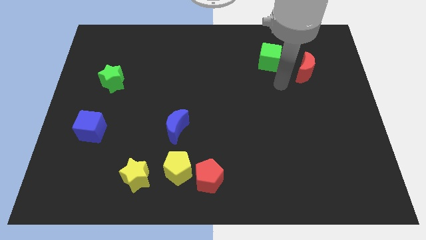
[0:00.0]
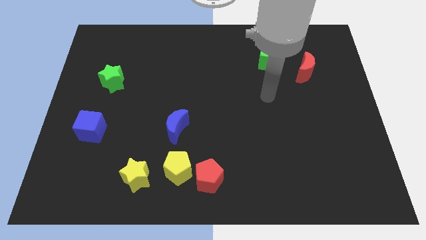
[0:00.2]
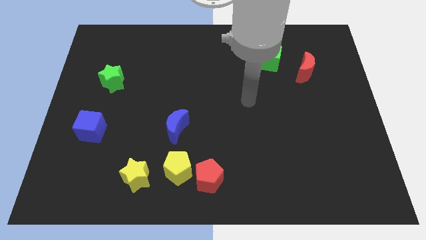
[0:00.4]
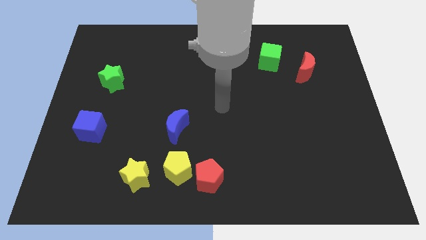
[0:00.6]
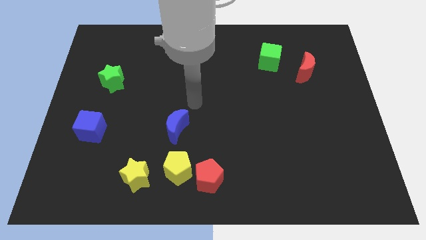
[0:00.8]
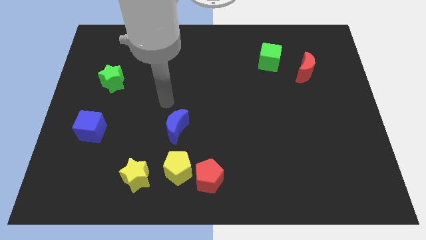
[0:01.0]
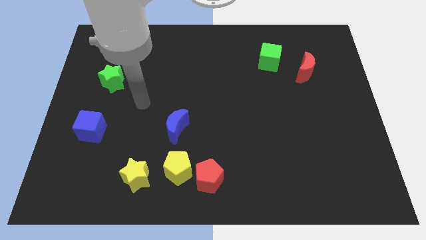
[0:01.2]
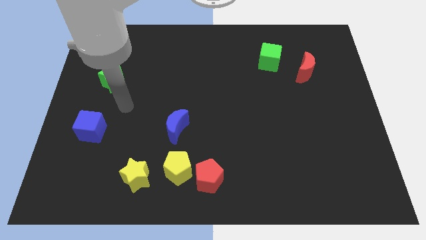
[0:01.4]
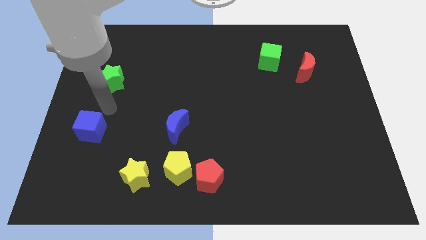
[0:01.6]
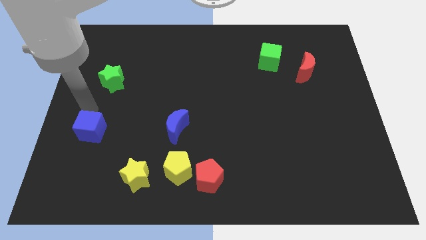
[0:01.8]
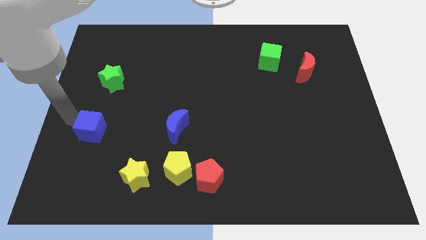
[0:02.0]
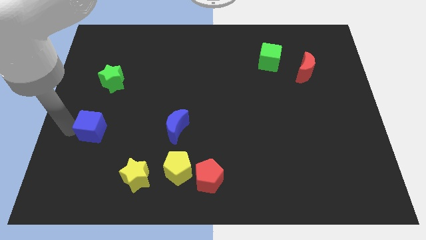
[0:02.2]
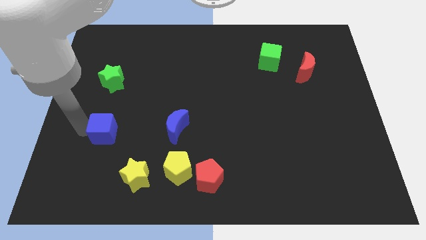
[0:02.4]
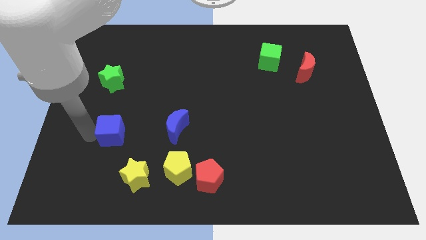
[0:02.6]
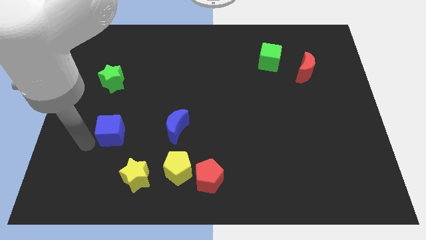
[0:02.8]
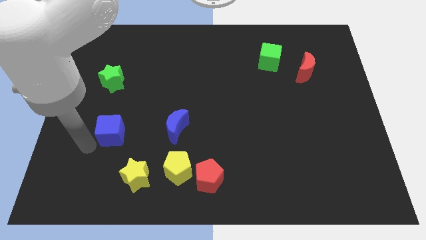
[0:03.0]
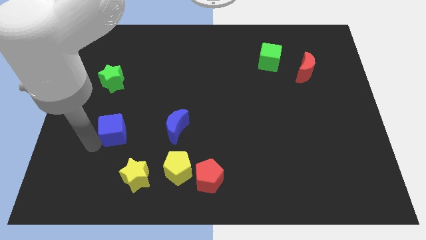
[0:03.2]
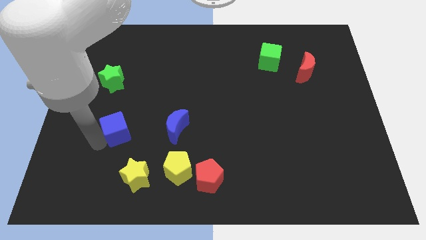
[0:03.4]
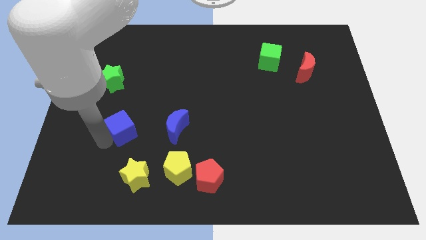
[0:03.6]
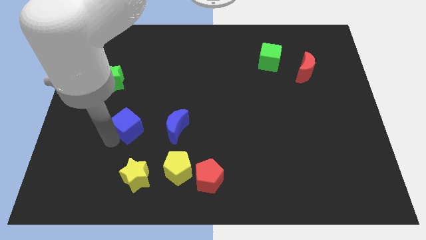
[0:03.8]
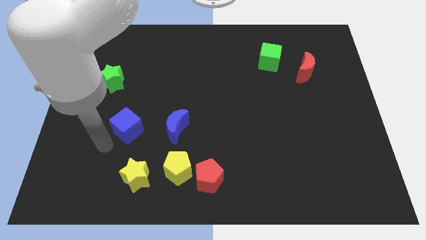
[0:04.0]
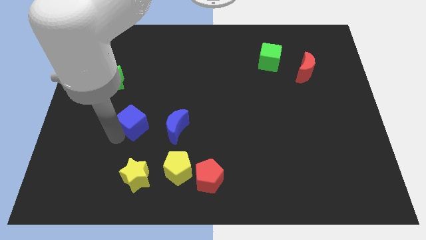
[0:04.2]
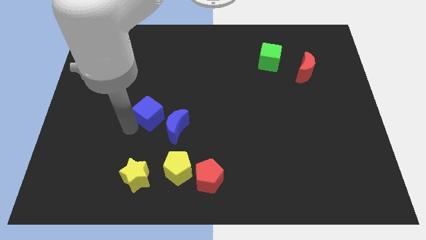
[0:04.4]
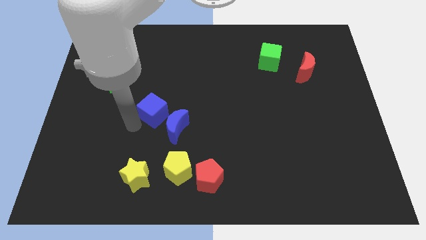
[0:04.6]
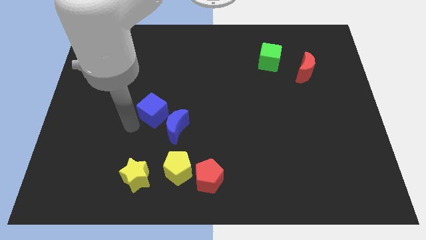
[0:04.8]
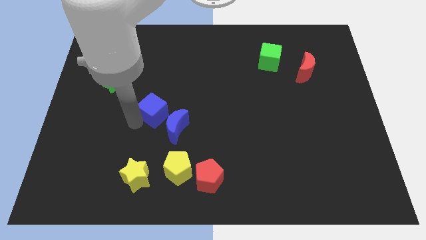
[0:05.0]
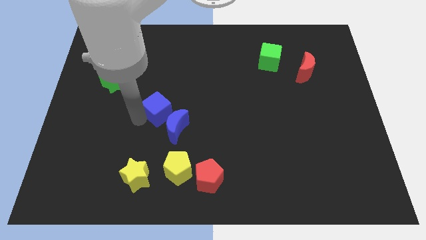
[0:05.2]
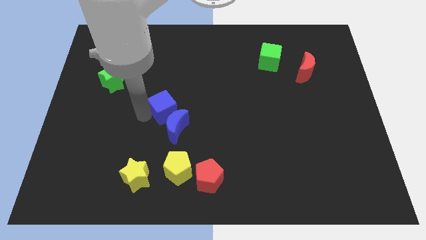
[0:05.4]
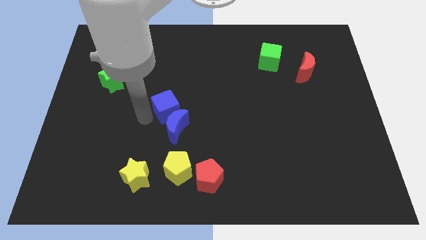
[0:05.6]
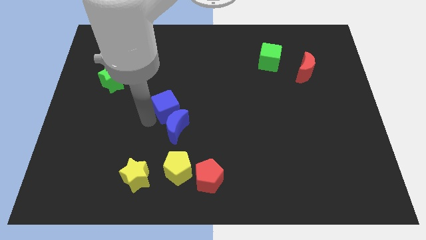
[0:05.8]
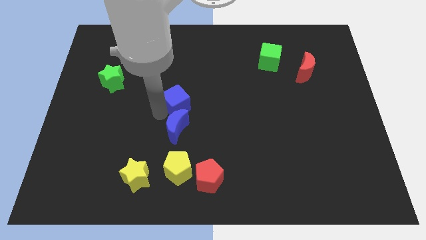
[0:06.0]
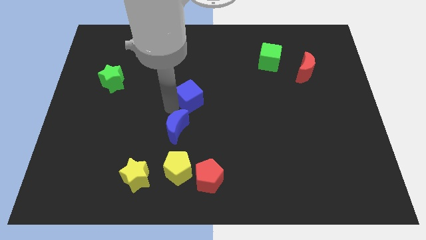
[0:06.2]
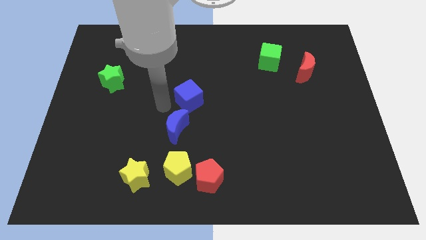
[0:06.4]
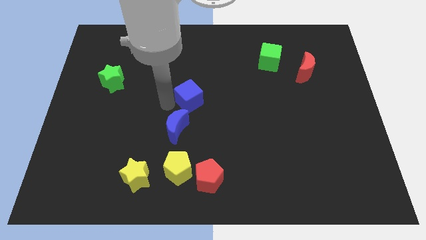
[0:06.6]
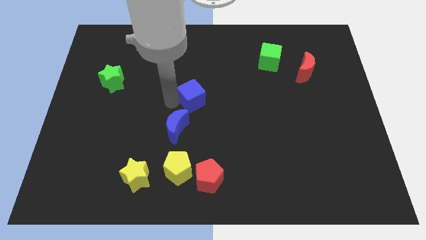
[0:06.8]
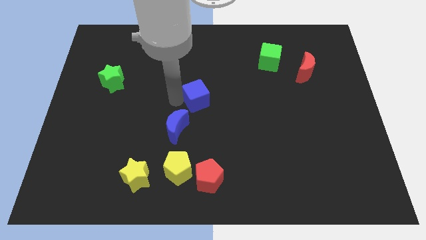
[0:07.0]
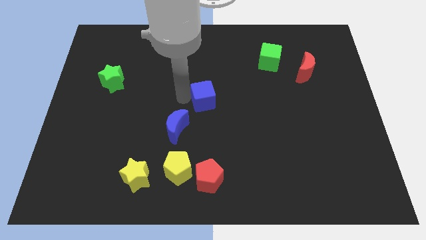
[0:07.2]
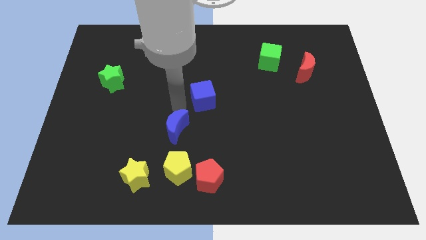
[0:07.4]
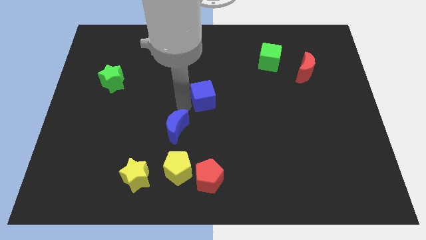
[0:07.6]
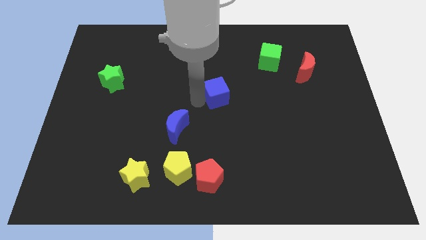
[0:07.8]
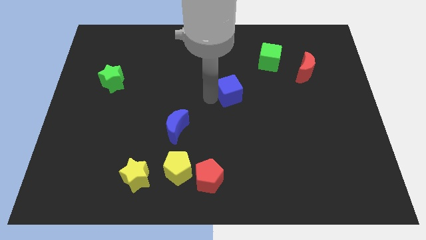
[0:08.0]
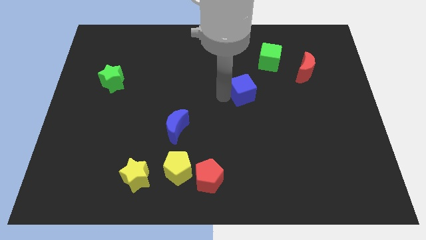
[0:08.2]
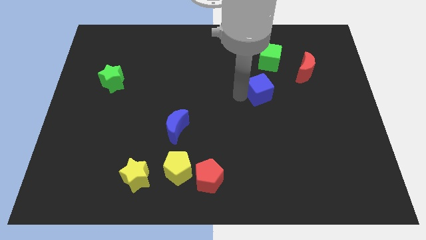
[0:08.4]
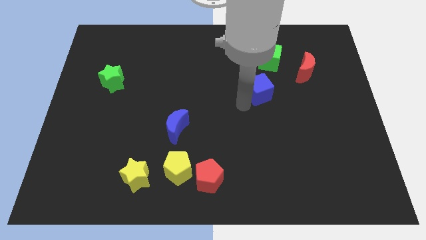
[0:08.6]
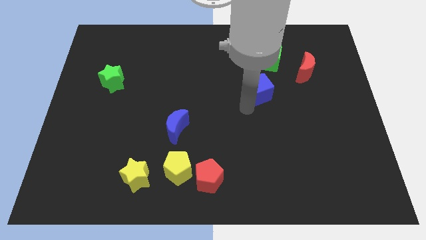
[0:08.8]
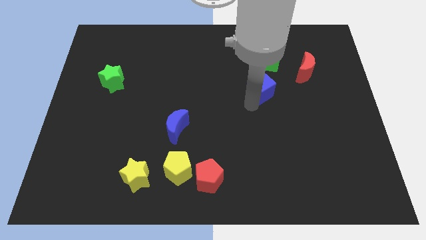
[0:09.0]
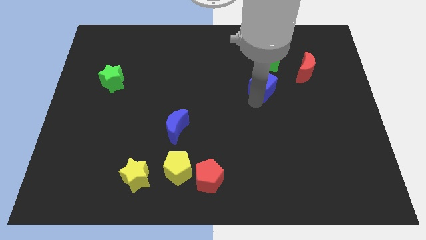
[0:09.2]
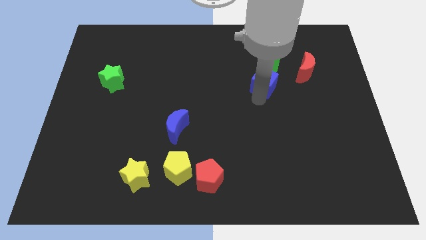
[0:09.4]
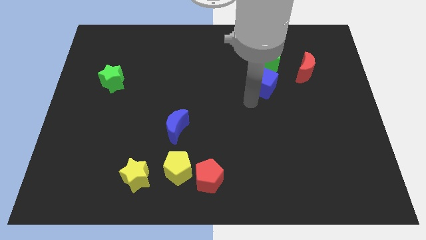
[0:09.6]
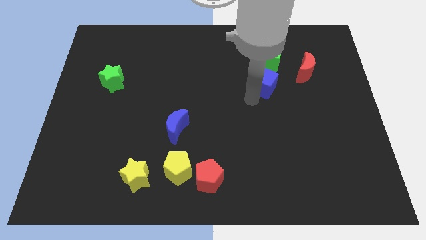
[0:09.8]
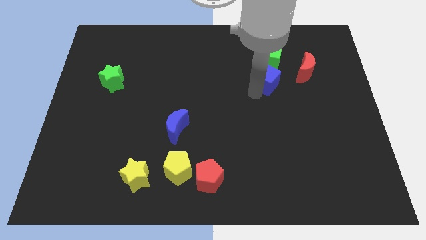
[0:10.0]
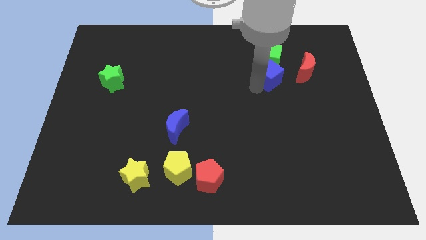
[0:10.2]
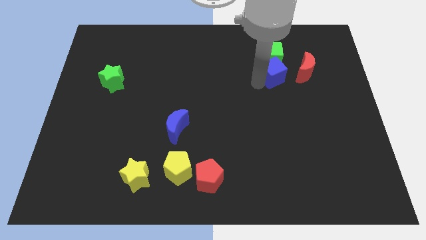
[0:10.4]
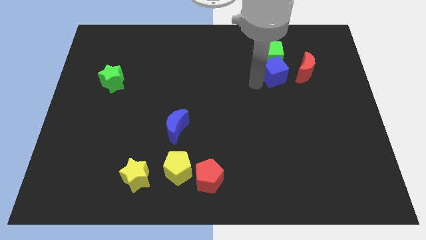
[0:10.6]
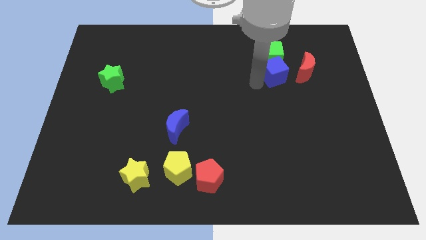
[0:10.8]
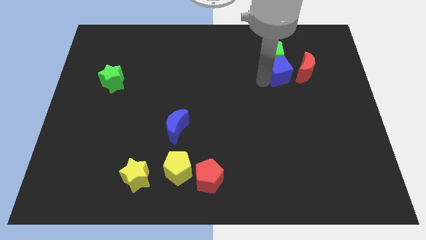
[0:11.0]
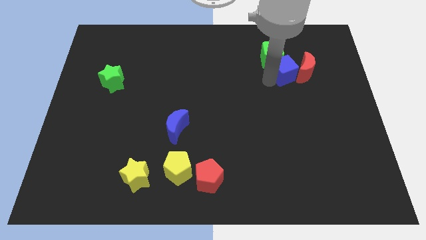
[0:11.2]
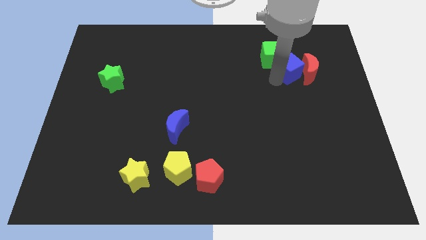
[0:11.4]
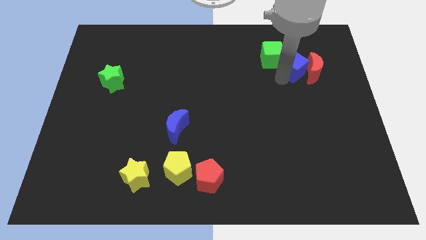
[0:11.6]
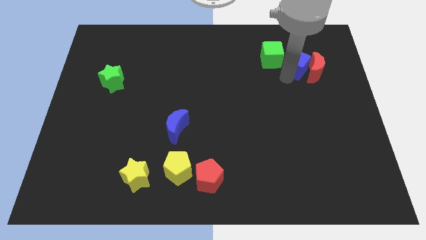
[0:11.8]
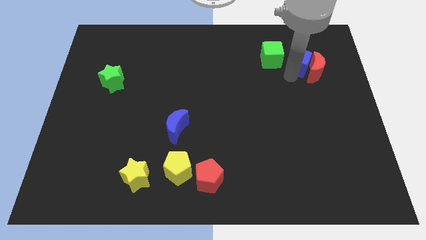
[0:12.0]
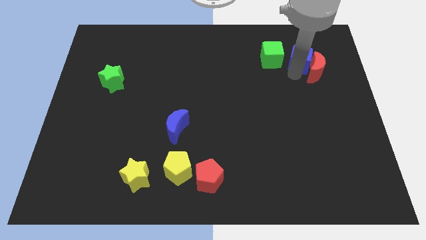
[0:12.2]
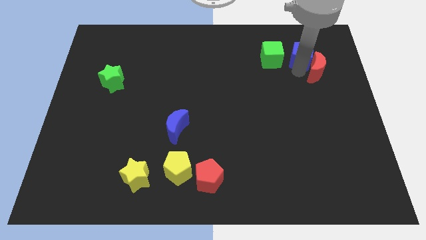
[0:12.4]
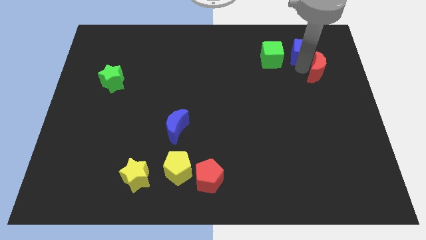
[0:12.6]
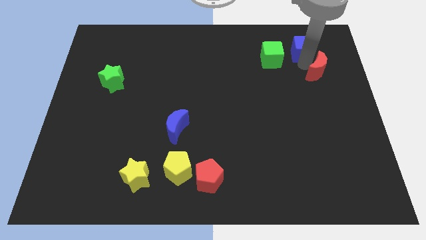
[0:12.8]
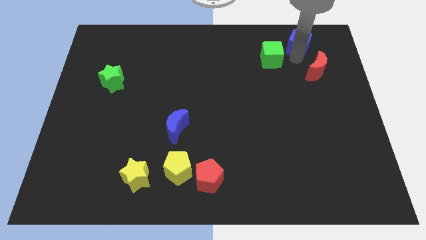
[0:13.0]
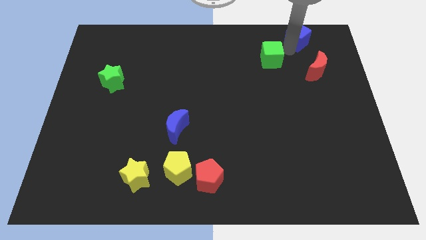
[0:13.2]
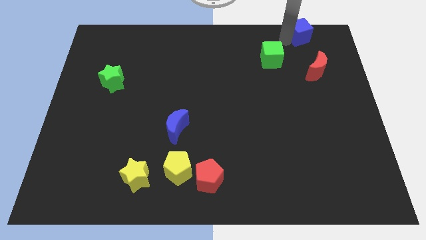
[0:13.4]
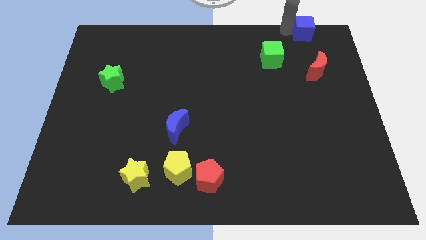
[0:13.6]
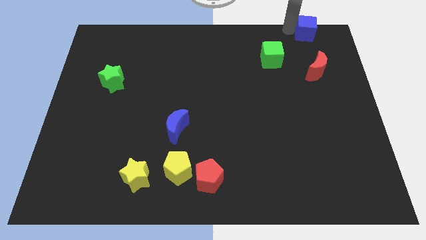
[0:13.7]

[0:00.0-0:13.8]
slide the blue cube to the top right of the board

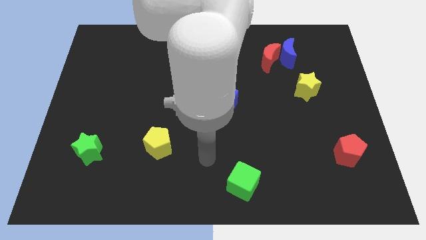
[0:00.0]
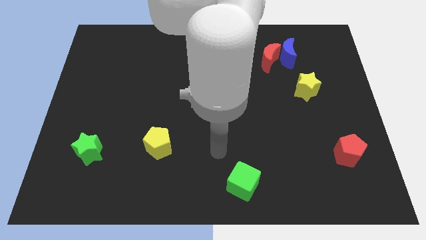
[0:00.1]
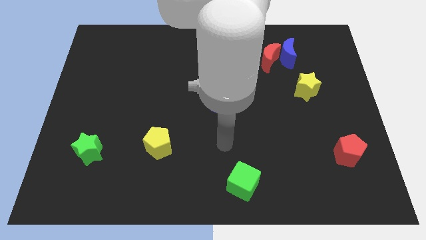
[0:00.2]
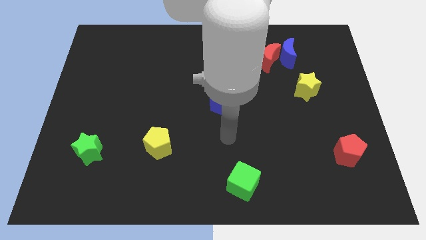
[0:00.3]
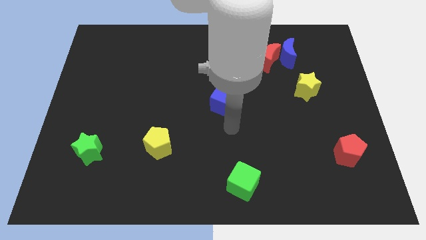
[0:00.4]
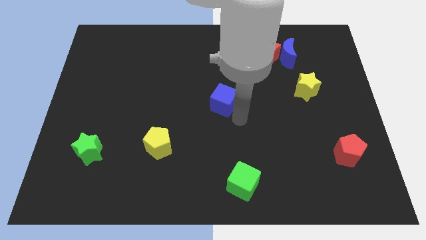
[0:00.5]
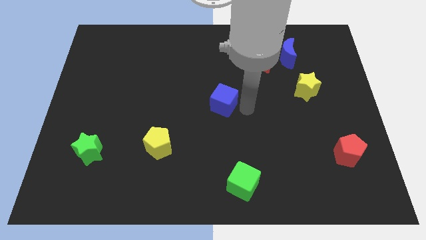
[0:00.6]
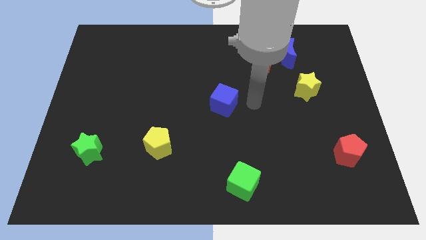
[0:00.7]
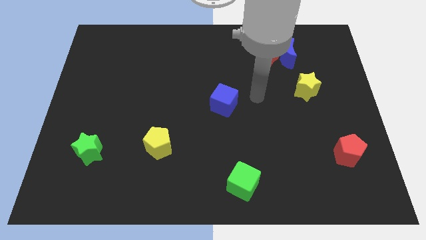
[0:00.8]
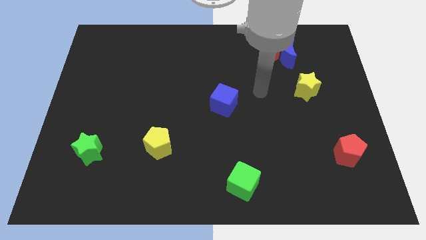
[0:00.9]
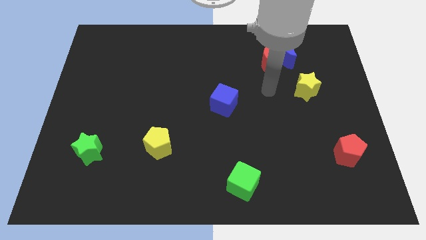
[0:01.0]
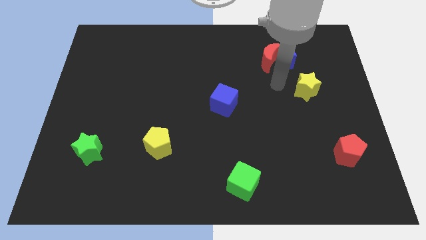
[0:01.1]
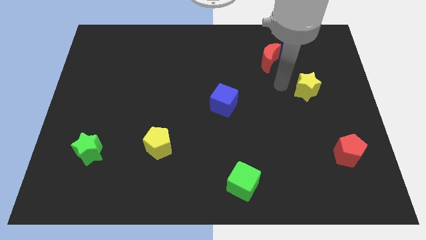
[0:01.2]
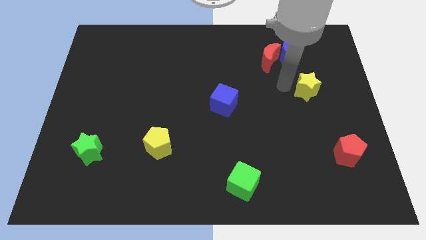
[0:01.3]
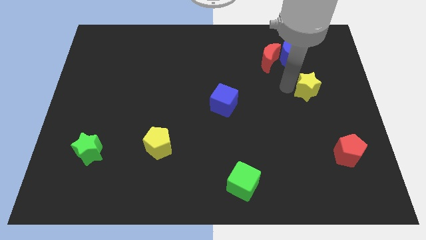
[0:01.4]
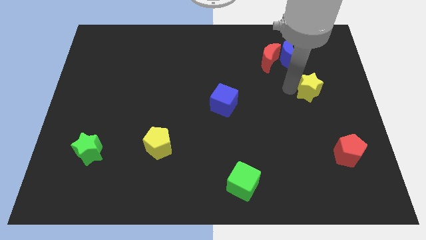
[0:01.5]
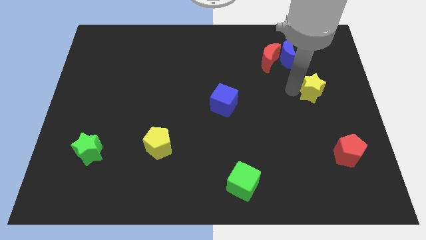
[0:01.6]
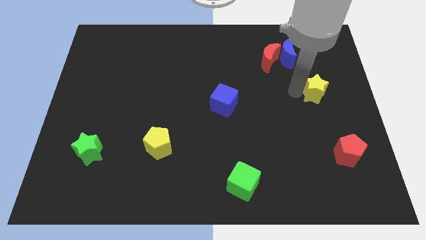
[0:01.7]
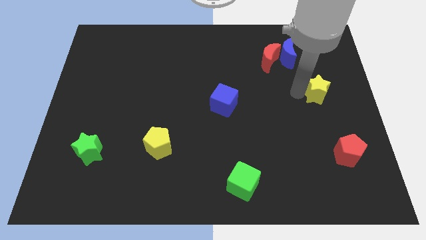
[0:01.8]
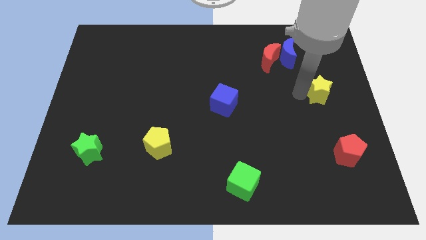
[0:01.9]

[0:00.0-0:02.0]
move the yellow star to the center right
